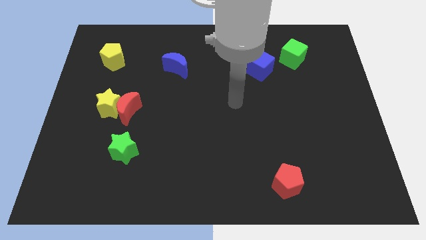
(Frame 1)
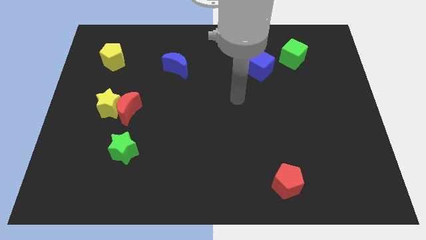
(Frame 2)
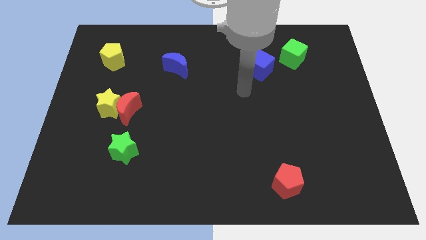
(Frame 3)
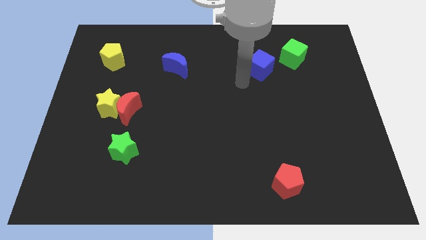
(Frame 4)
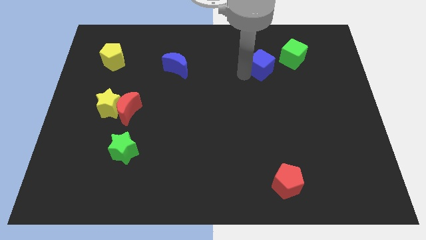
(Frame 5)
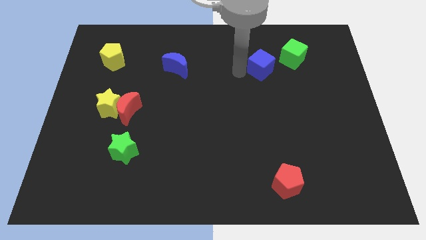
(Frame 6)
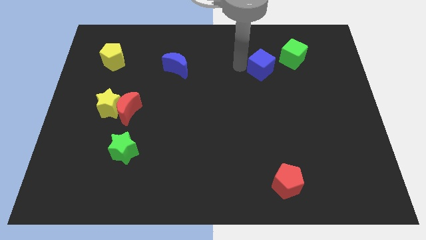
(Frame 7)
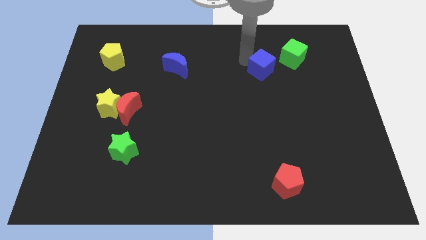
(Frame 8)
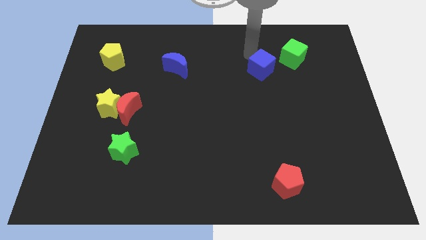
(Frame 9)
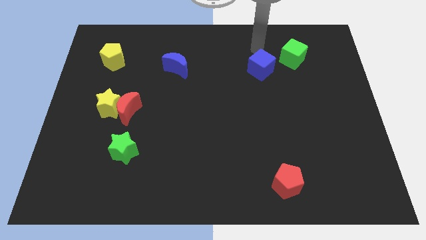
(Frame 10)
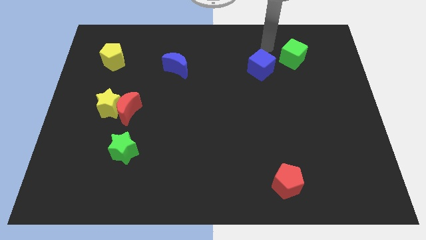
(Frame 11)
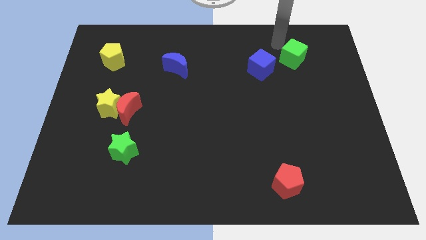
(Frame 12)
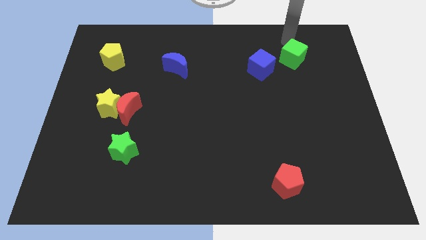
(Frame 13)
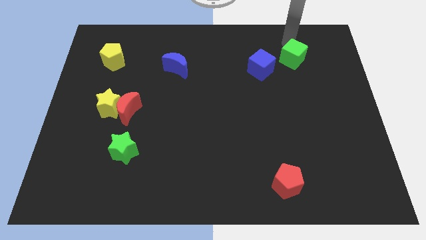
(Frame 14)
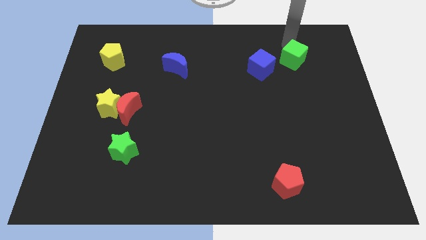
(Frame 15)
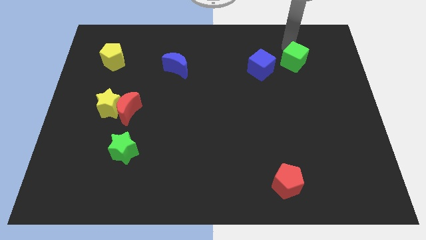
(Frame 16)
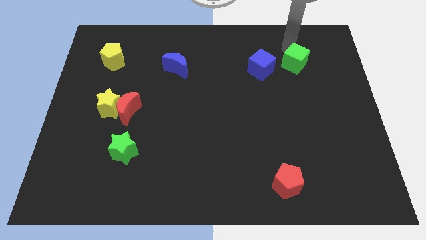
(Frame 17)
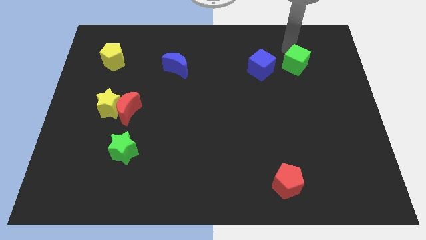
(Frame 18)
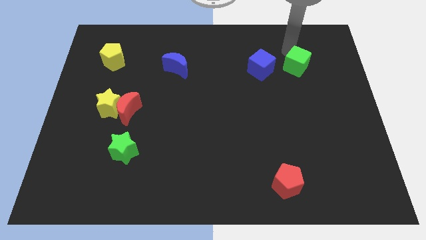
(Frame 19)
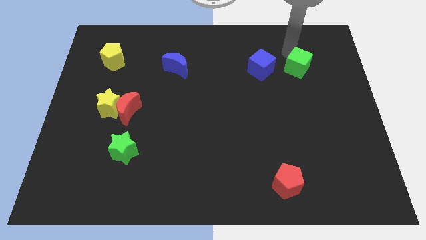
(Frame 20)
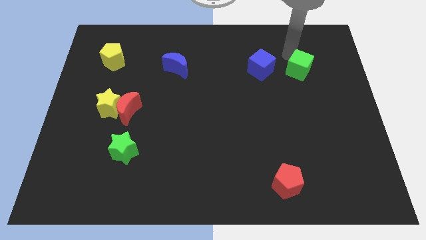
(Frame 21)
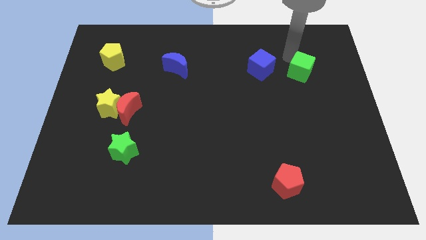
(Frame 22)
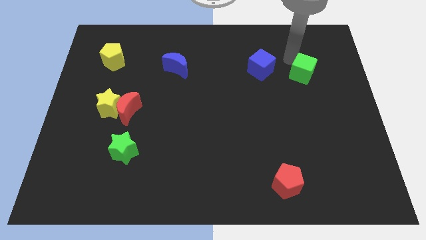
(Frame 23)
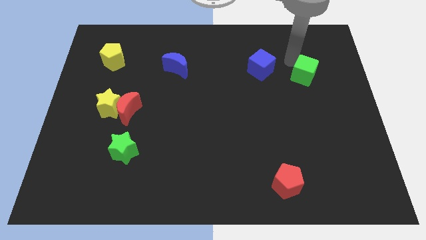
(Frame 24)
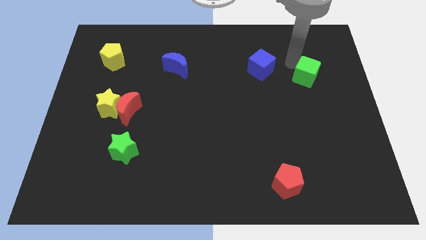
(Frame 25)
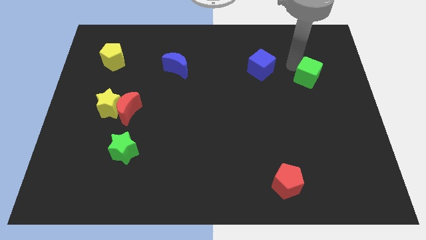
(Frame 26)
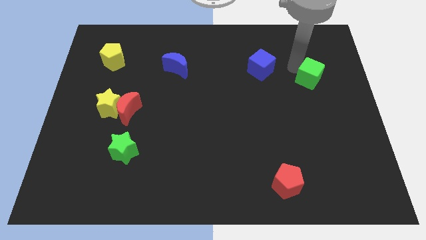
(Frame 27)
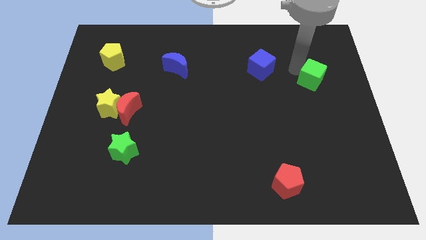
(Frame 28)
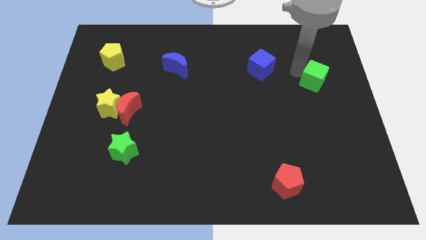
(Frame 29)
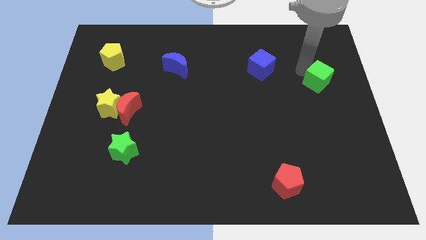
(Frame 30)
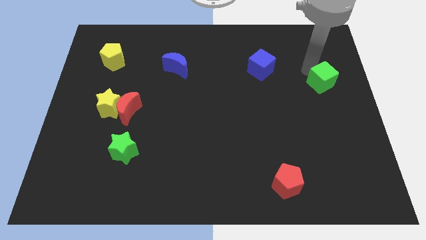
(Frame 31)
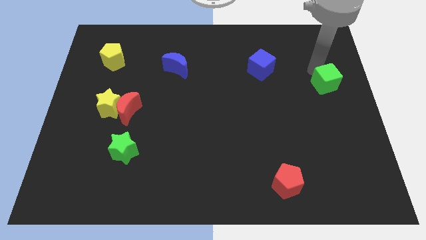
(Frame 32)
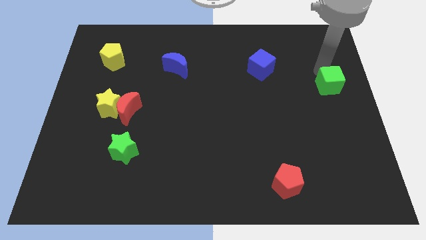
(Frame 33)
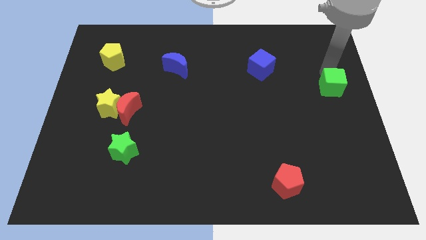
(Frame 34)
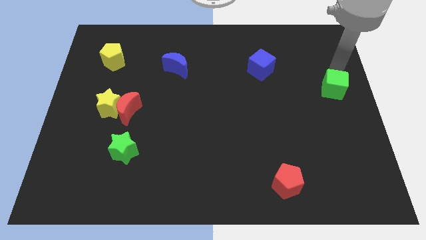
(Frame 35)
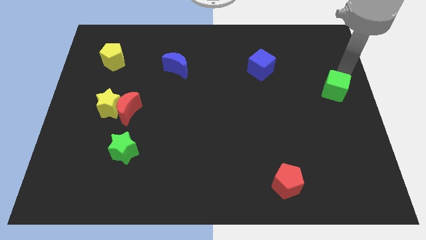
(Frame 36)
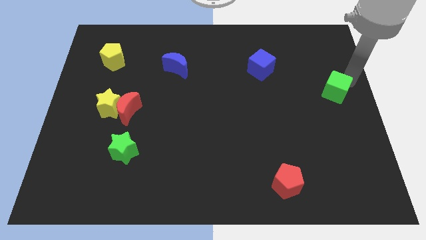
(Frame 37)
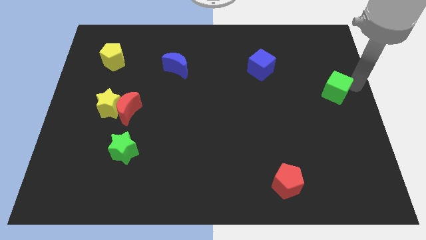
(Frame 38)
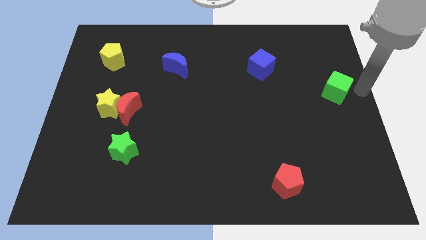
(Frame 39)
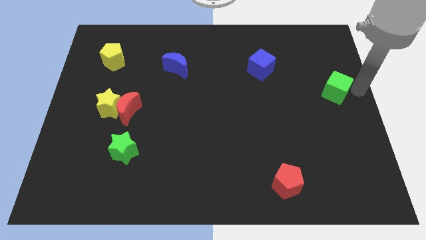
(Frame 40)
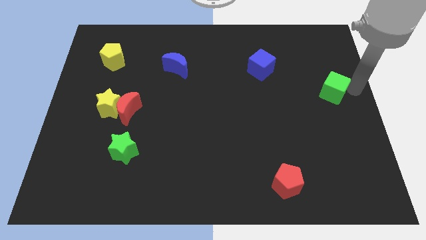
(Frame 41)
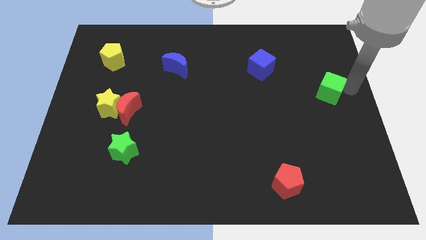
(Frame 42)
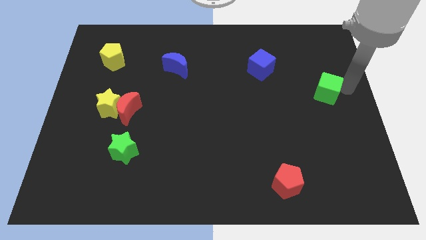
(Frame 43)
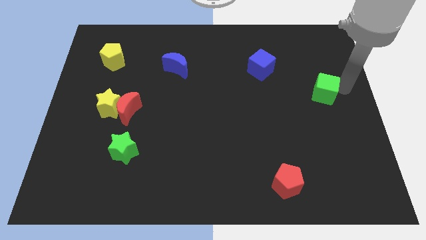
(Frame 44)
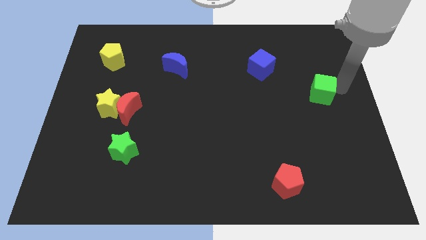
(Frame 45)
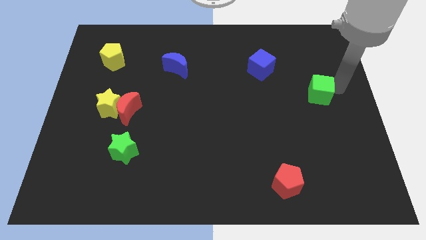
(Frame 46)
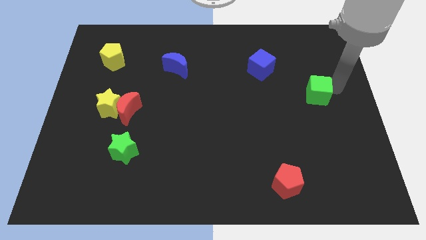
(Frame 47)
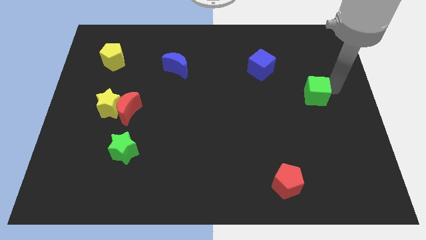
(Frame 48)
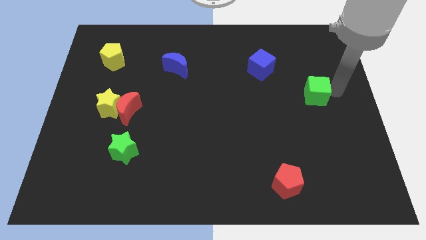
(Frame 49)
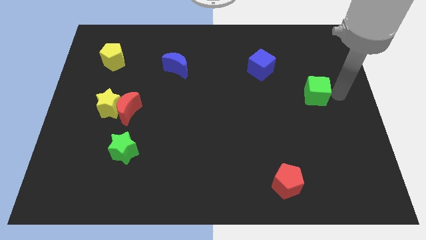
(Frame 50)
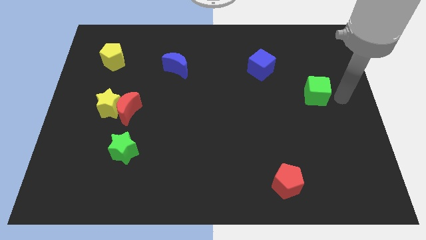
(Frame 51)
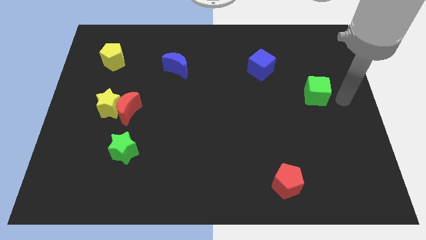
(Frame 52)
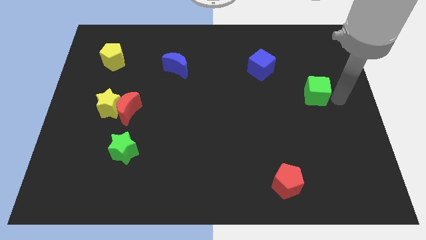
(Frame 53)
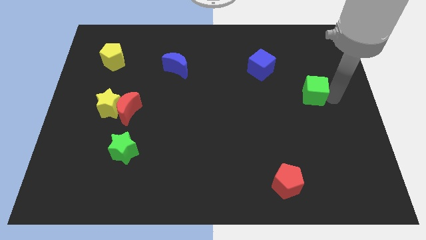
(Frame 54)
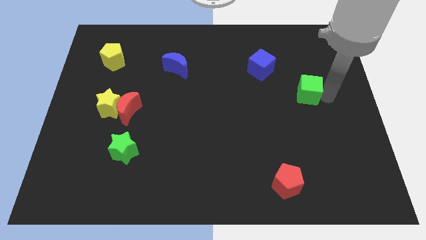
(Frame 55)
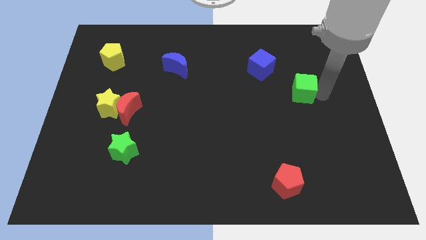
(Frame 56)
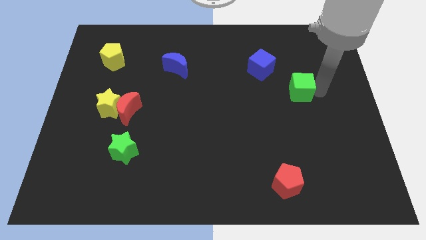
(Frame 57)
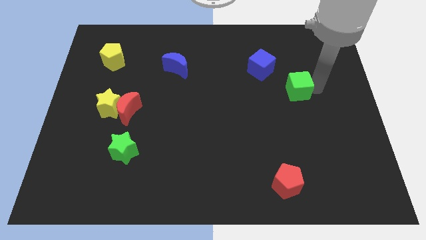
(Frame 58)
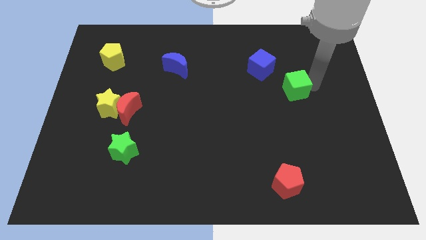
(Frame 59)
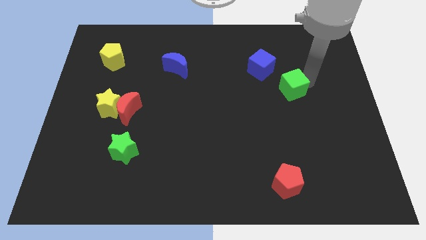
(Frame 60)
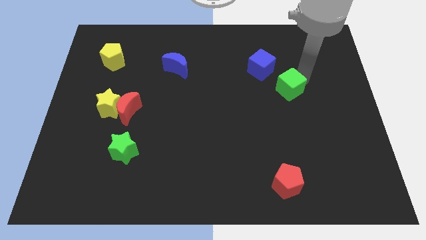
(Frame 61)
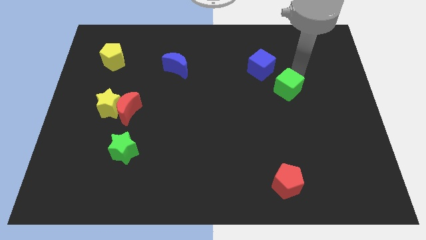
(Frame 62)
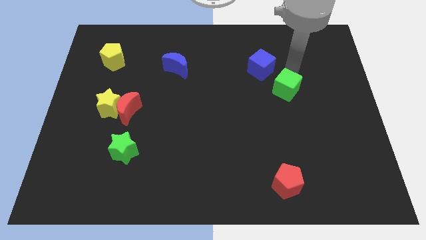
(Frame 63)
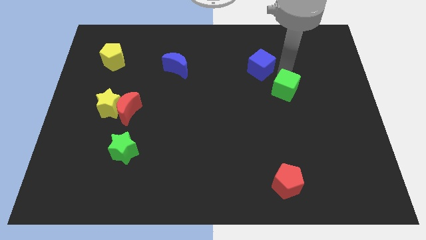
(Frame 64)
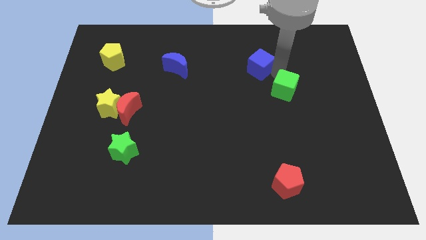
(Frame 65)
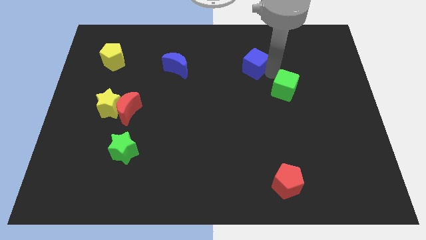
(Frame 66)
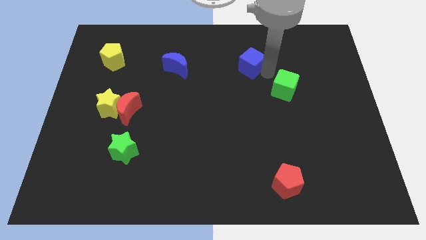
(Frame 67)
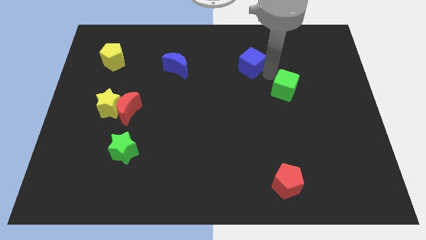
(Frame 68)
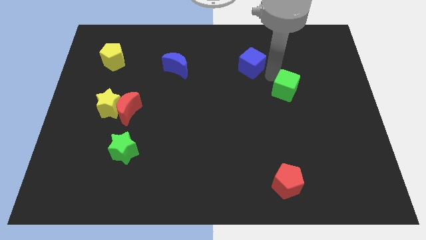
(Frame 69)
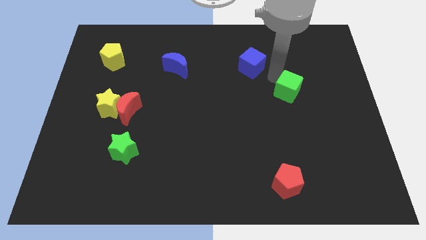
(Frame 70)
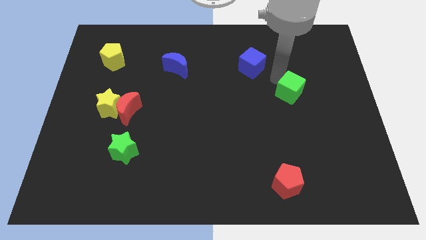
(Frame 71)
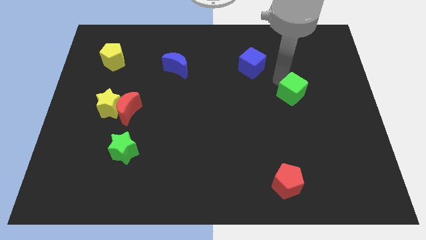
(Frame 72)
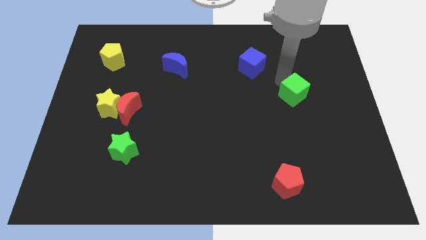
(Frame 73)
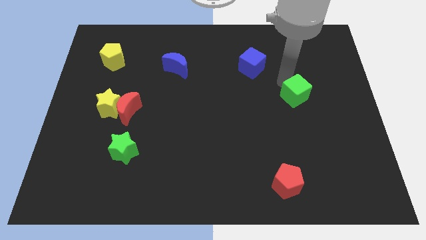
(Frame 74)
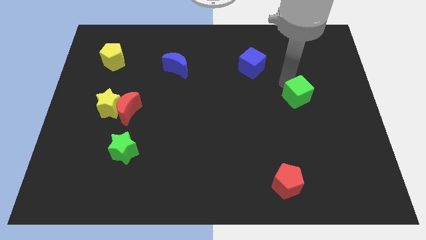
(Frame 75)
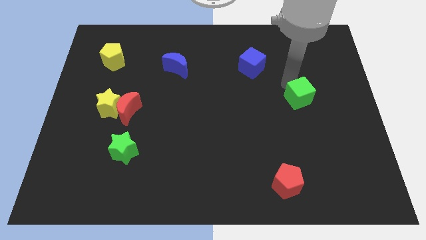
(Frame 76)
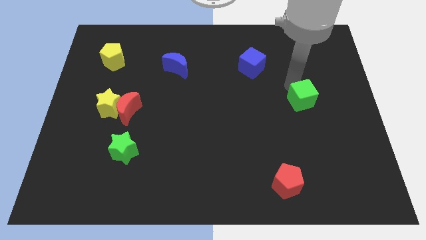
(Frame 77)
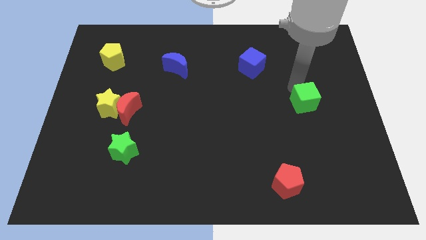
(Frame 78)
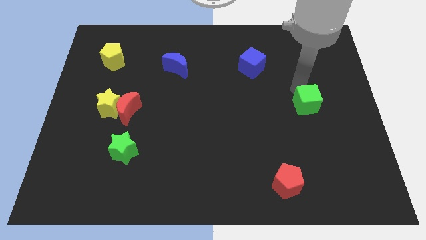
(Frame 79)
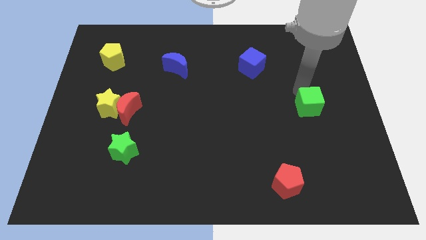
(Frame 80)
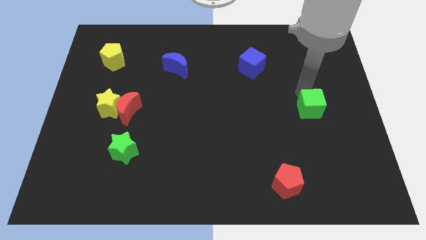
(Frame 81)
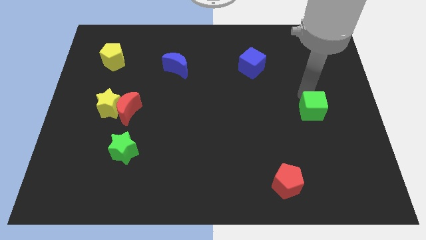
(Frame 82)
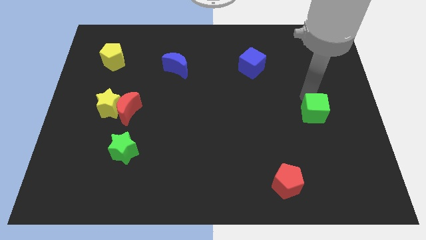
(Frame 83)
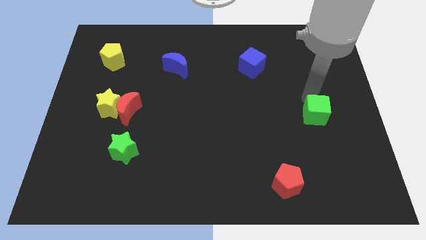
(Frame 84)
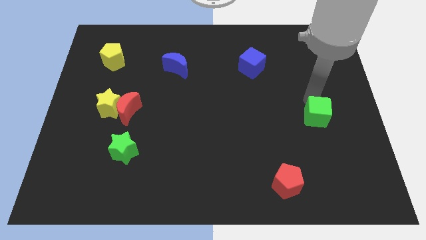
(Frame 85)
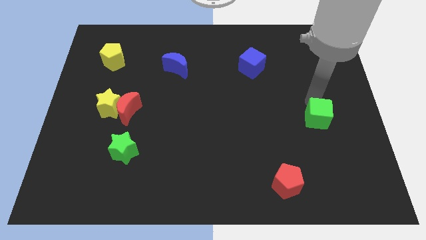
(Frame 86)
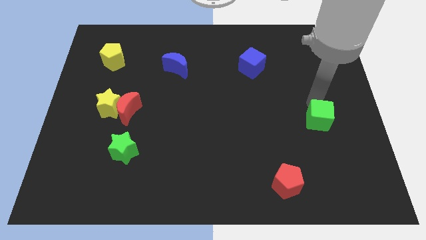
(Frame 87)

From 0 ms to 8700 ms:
move the green cube down
